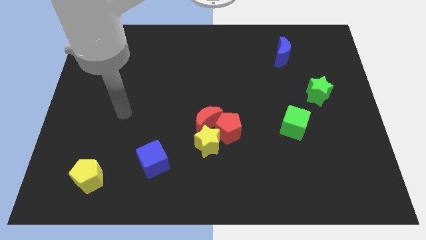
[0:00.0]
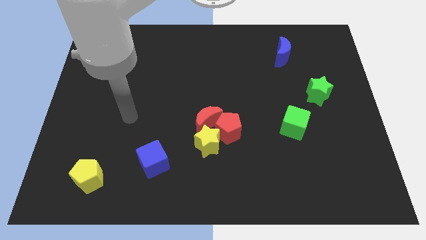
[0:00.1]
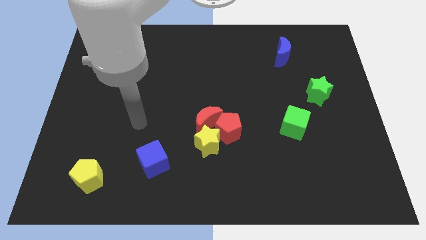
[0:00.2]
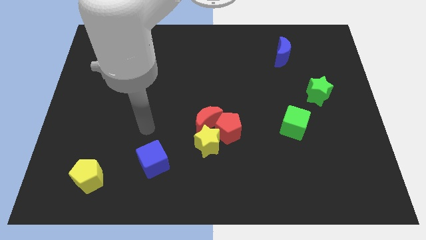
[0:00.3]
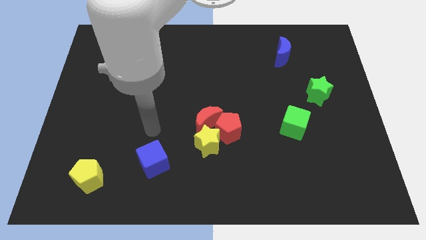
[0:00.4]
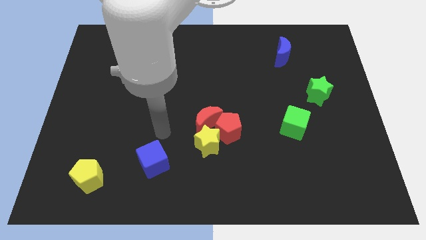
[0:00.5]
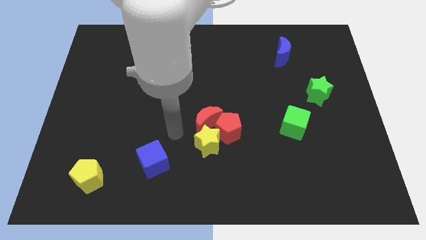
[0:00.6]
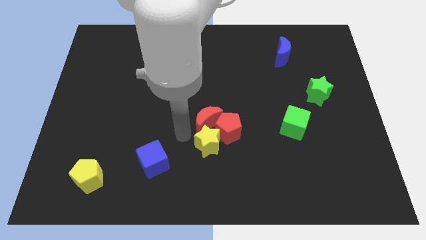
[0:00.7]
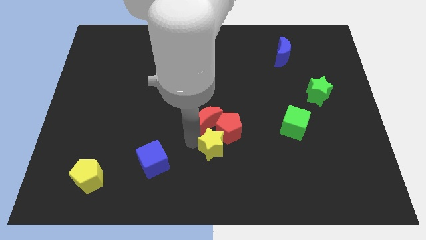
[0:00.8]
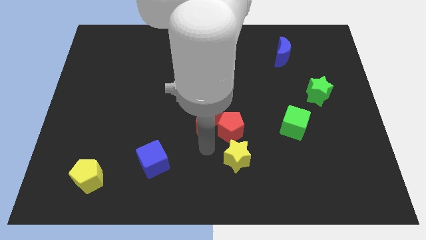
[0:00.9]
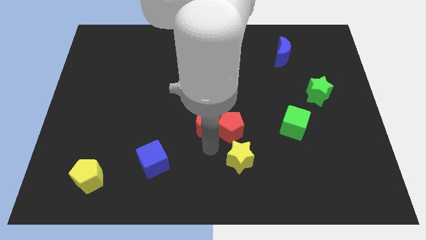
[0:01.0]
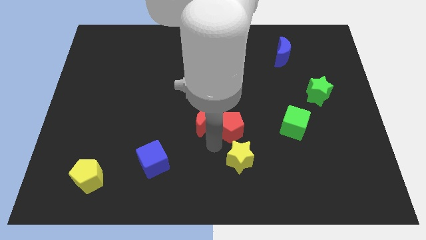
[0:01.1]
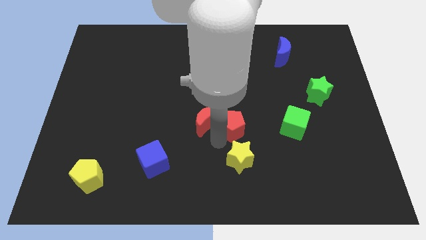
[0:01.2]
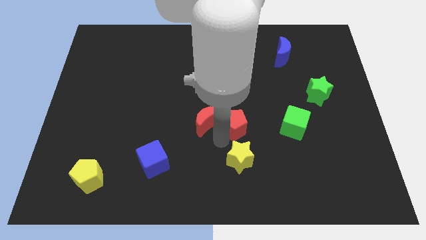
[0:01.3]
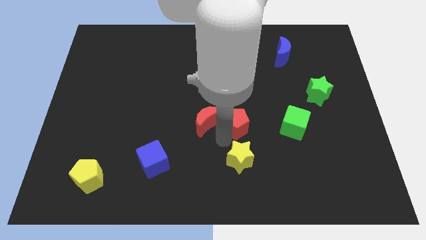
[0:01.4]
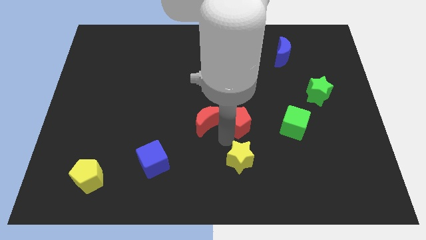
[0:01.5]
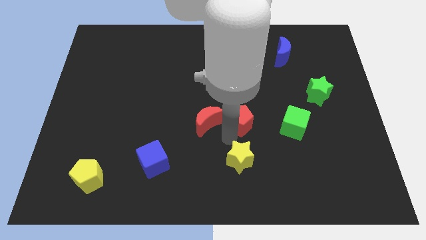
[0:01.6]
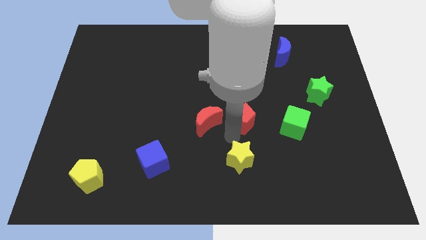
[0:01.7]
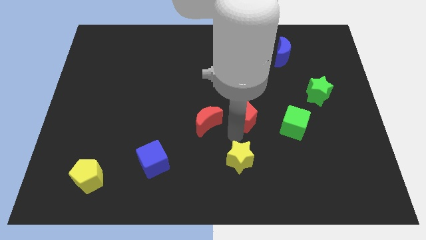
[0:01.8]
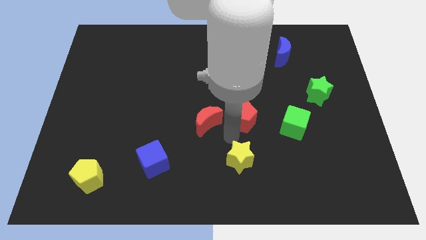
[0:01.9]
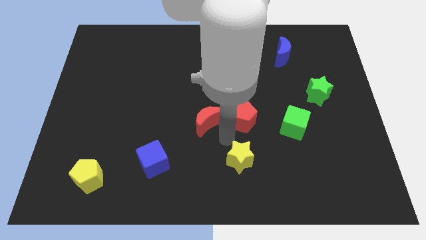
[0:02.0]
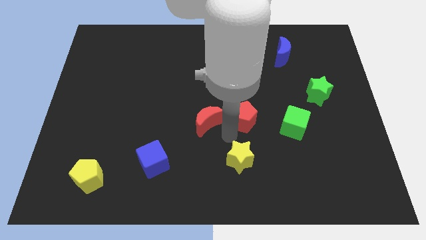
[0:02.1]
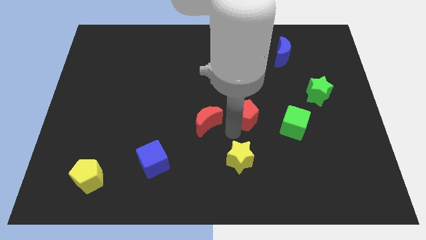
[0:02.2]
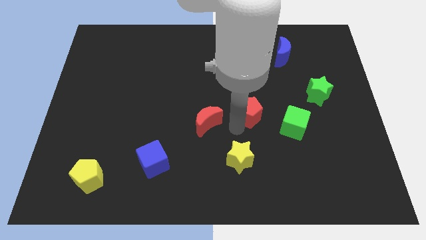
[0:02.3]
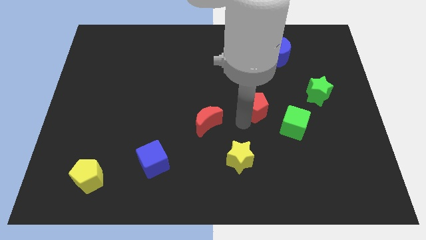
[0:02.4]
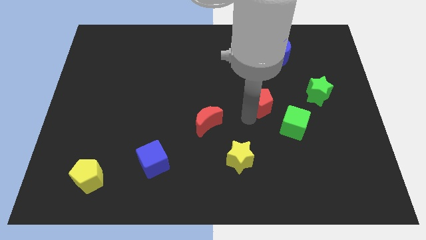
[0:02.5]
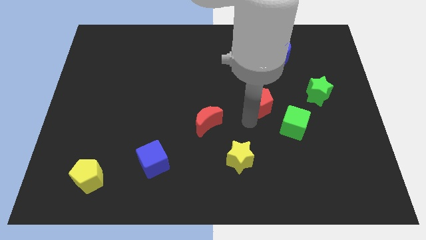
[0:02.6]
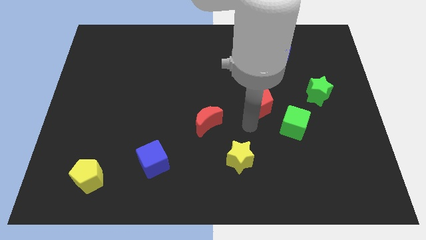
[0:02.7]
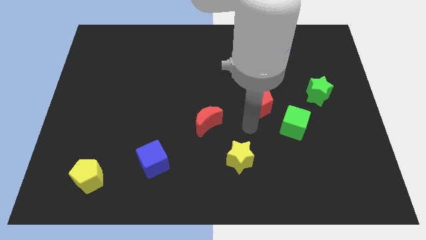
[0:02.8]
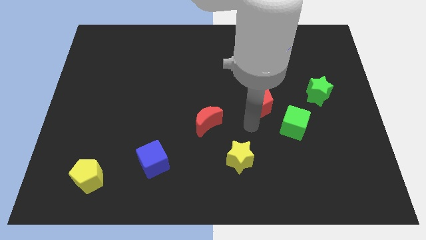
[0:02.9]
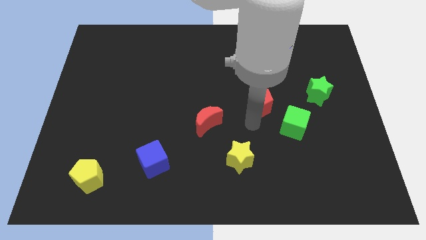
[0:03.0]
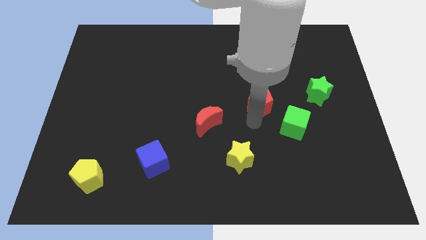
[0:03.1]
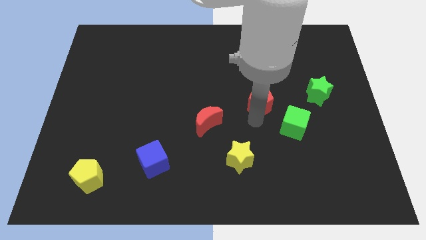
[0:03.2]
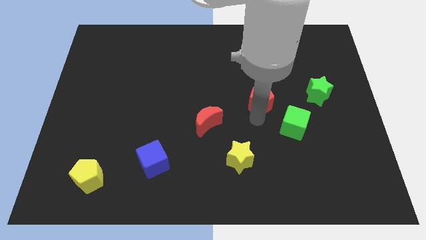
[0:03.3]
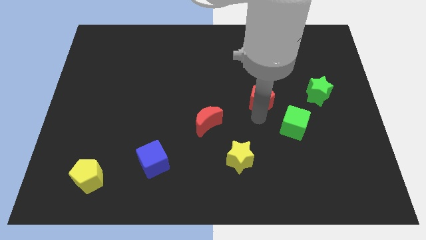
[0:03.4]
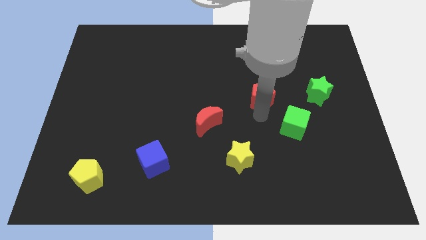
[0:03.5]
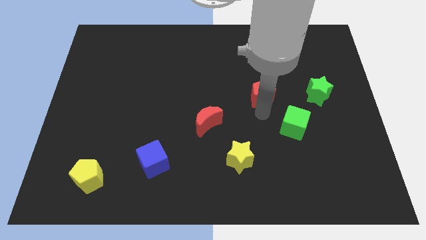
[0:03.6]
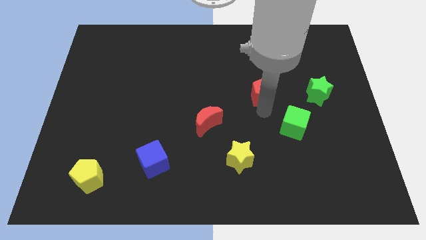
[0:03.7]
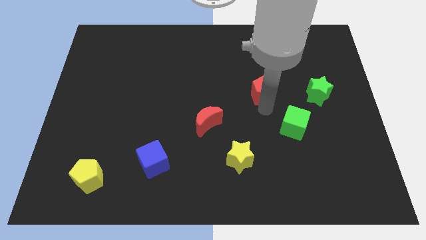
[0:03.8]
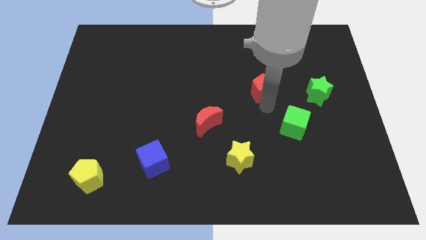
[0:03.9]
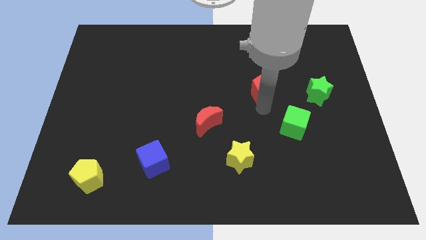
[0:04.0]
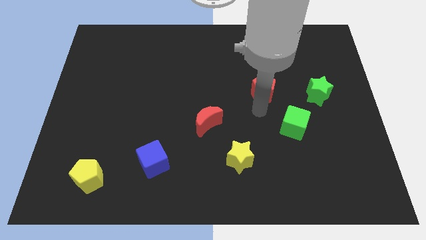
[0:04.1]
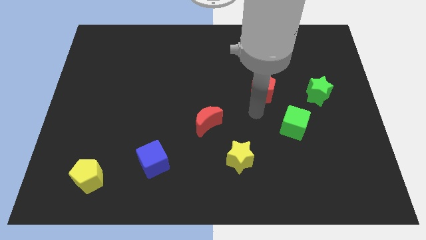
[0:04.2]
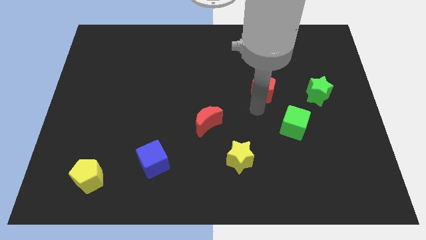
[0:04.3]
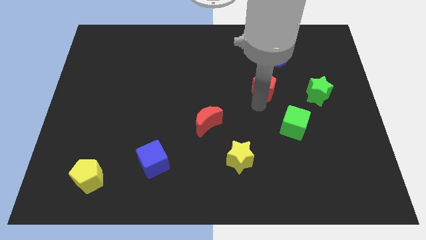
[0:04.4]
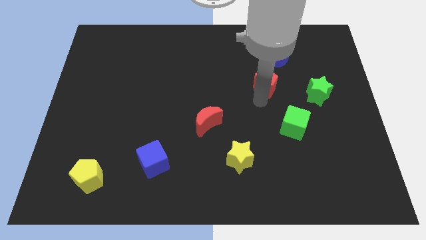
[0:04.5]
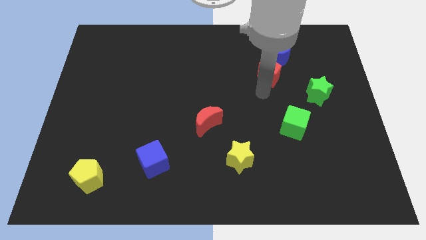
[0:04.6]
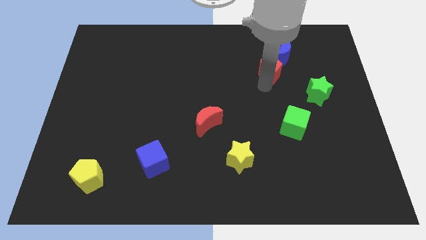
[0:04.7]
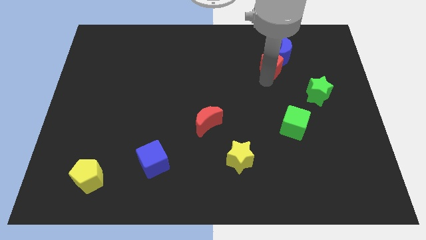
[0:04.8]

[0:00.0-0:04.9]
put the red pentagon close to the blue moon

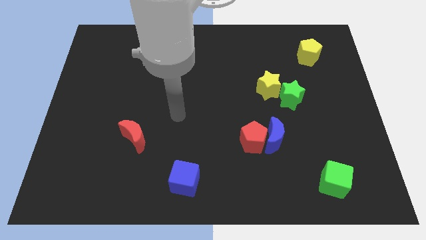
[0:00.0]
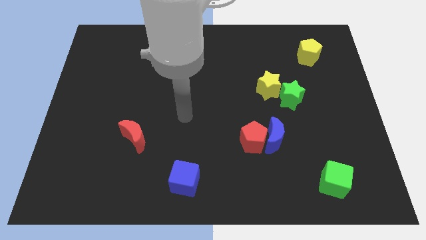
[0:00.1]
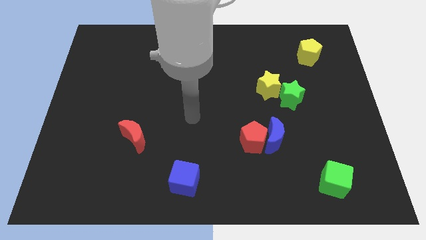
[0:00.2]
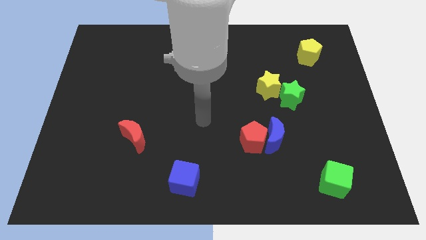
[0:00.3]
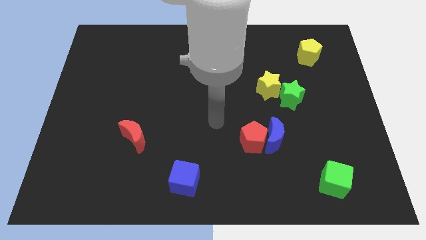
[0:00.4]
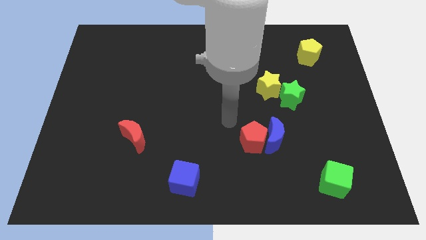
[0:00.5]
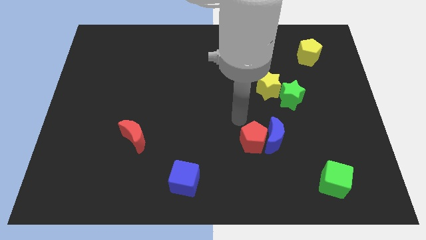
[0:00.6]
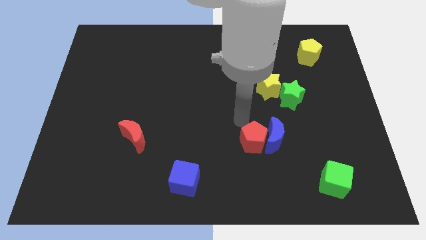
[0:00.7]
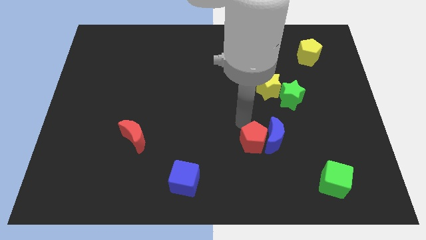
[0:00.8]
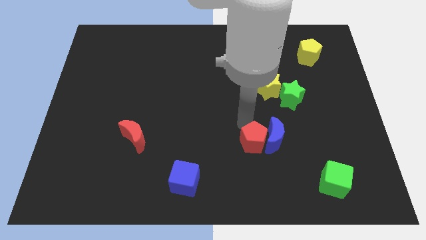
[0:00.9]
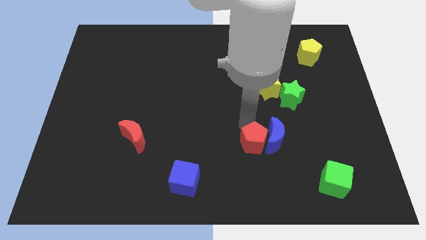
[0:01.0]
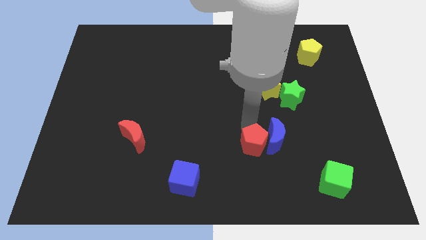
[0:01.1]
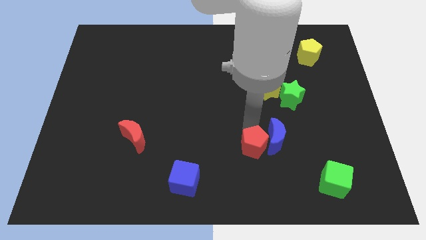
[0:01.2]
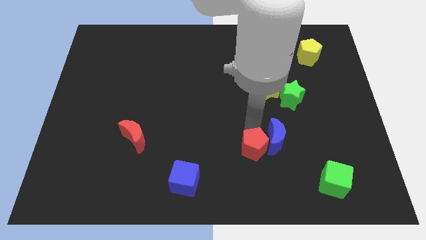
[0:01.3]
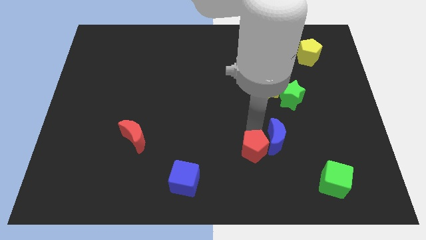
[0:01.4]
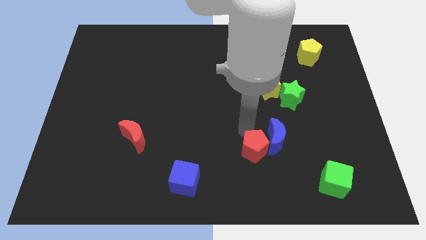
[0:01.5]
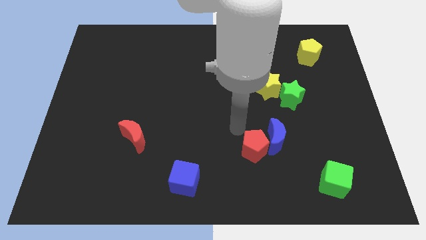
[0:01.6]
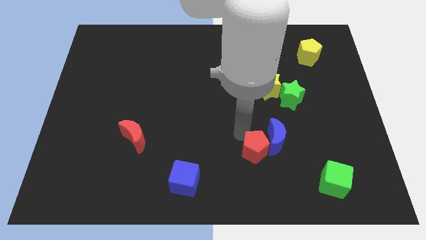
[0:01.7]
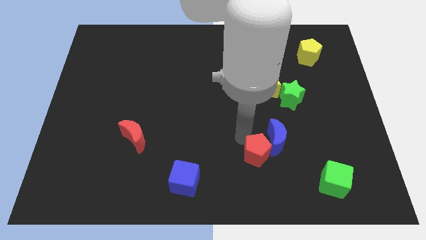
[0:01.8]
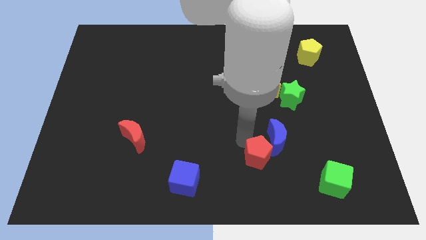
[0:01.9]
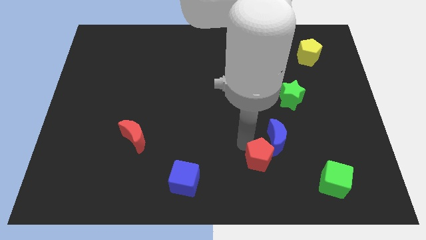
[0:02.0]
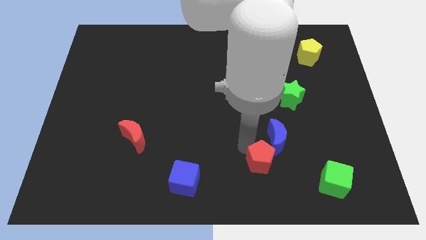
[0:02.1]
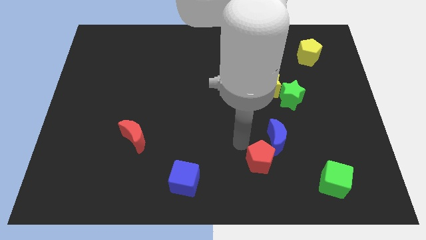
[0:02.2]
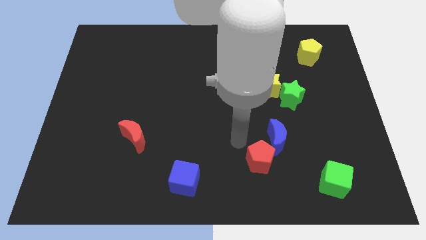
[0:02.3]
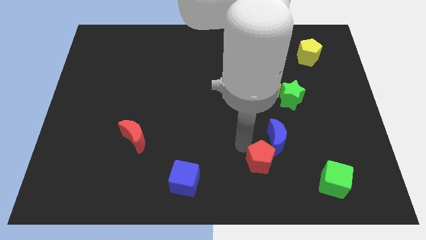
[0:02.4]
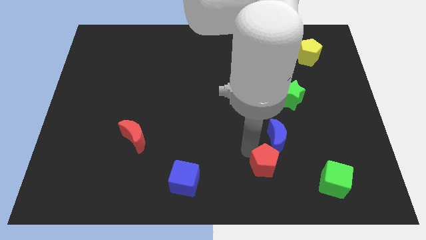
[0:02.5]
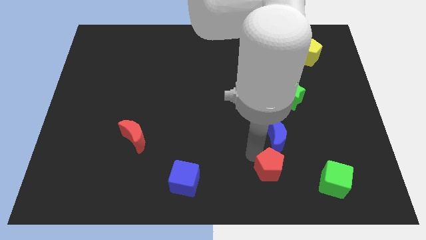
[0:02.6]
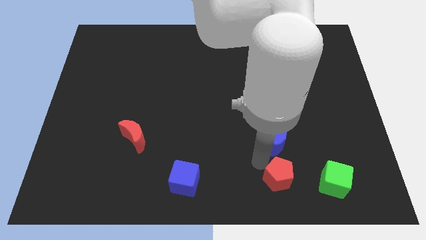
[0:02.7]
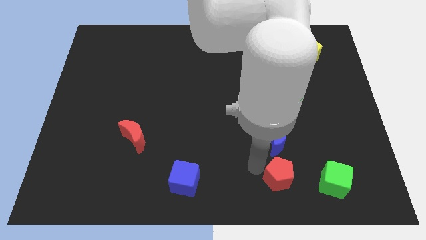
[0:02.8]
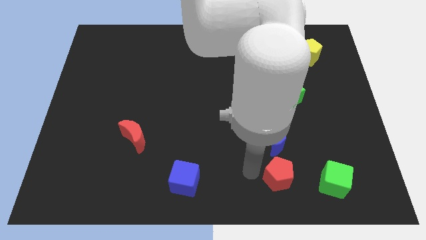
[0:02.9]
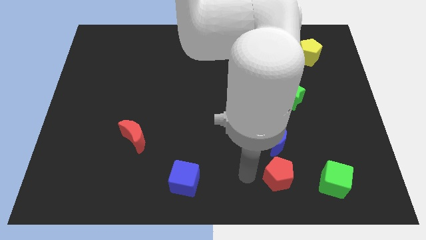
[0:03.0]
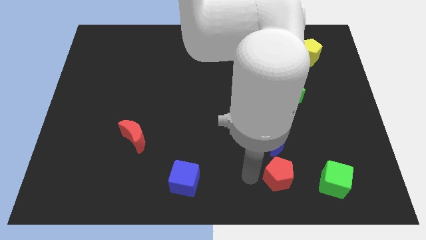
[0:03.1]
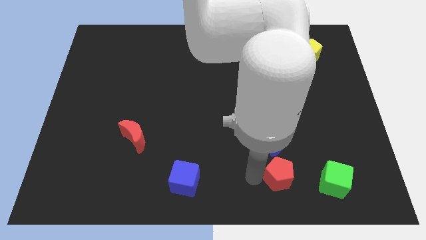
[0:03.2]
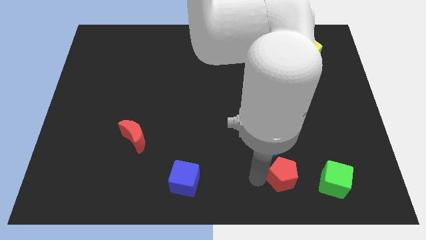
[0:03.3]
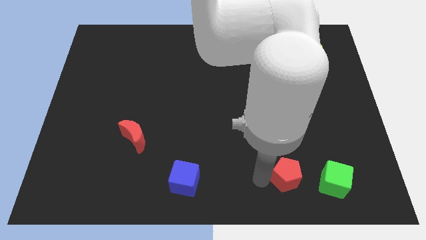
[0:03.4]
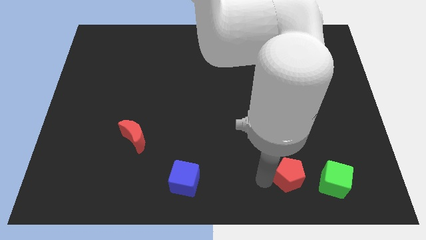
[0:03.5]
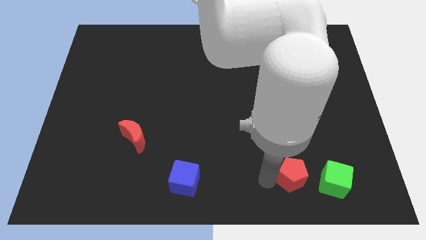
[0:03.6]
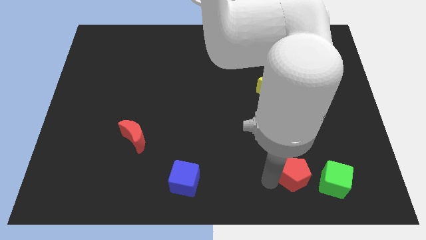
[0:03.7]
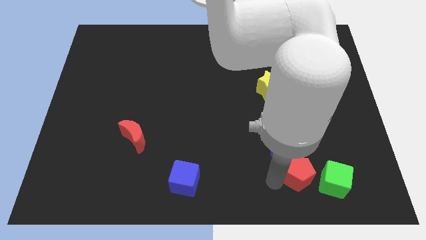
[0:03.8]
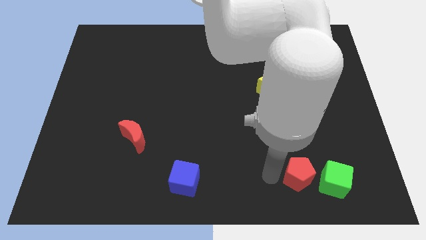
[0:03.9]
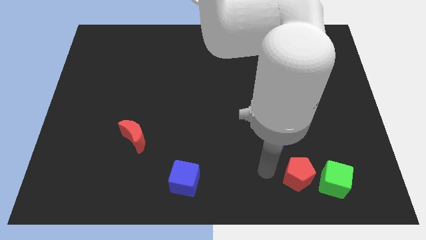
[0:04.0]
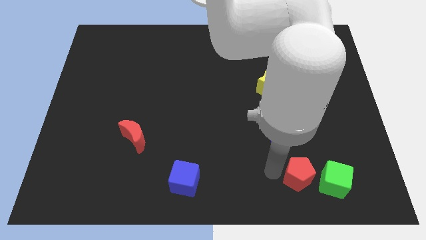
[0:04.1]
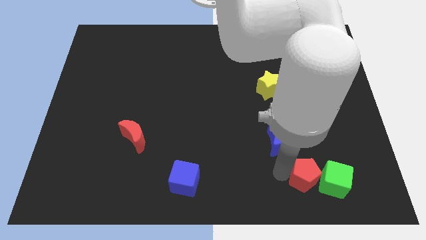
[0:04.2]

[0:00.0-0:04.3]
slide the red pentagon to the green cube
